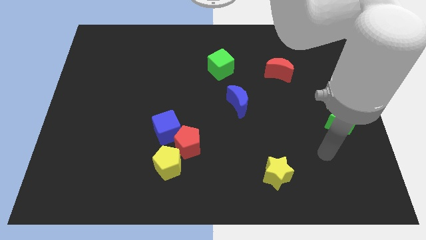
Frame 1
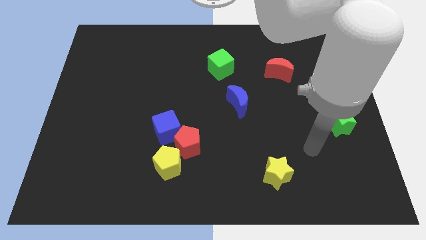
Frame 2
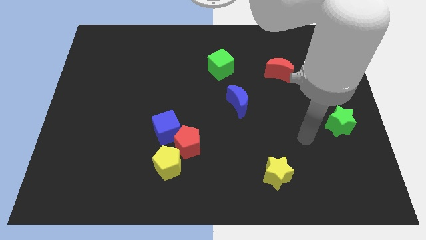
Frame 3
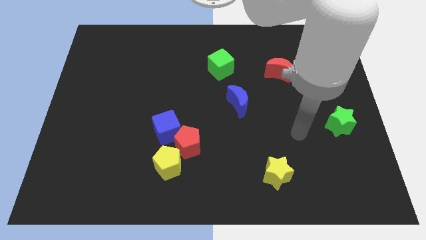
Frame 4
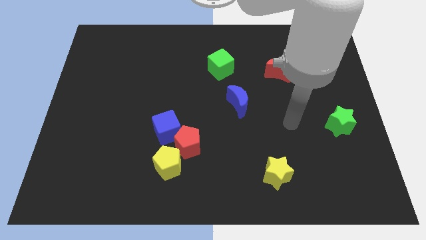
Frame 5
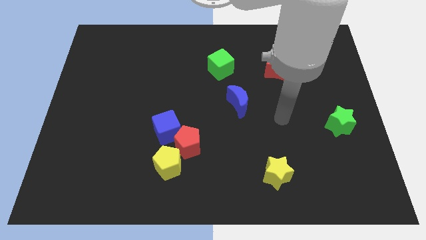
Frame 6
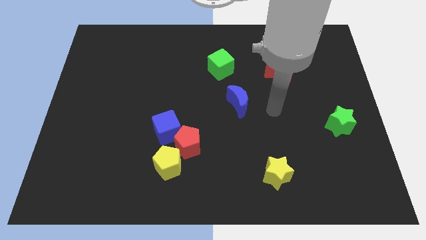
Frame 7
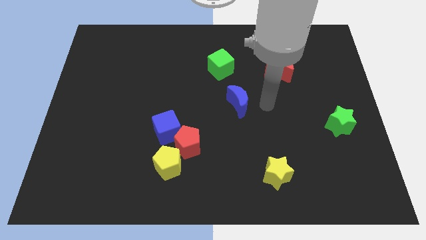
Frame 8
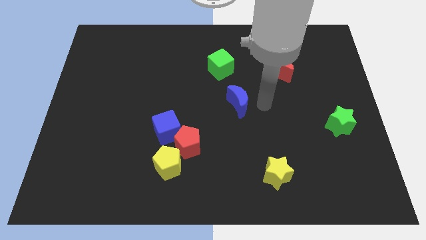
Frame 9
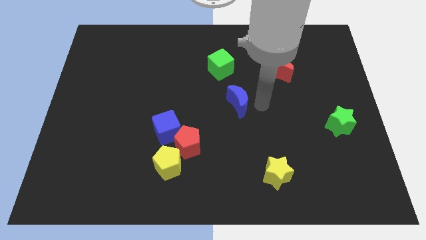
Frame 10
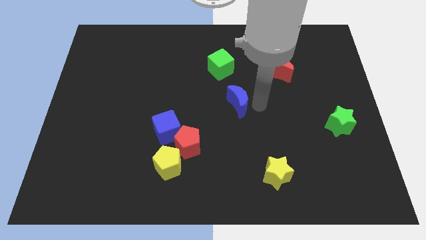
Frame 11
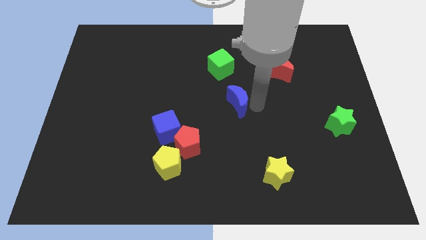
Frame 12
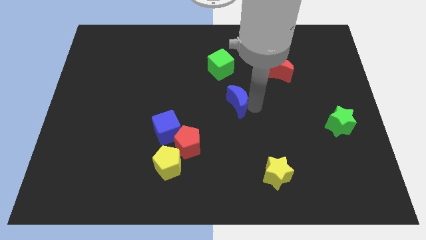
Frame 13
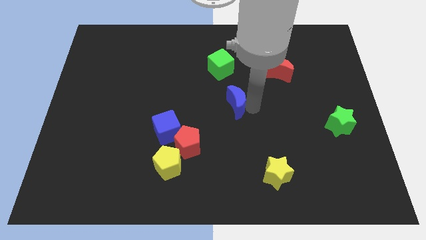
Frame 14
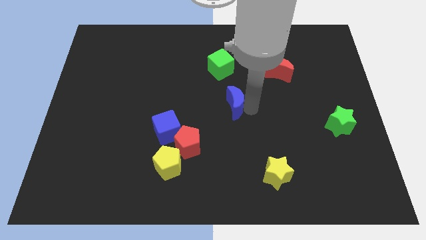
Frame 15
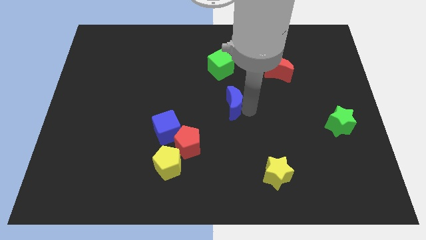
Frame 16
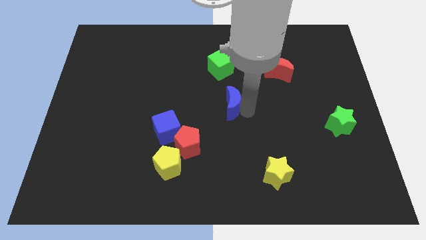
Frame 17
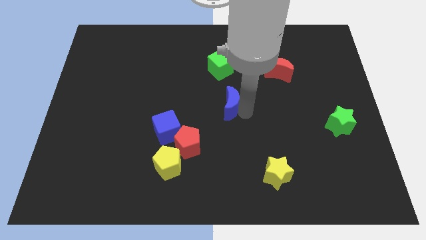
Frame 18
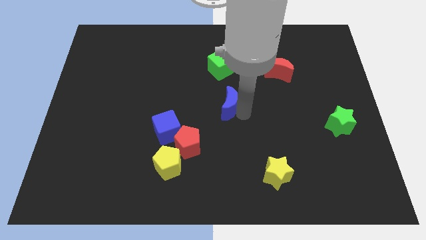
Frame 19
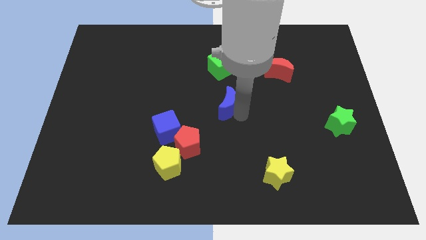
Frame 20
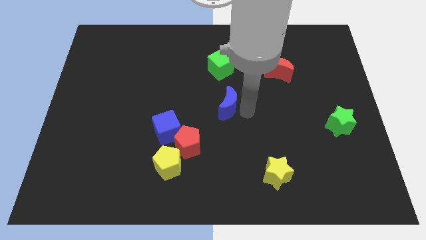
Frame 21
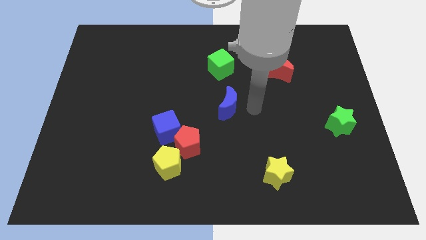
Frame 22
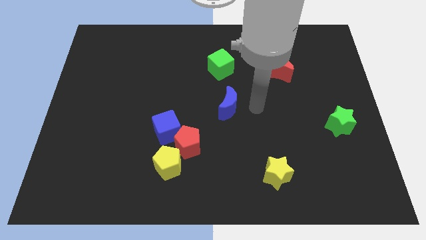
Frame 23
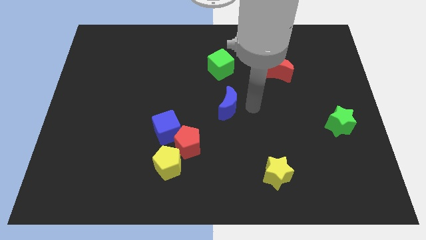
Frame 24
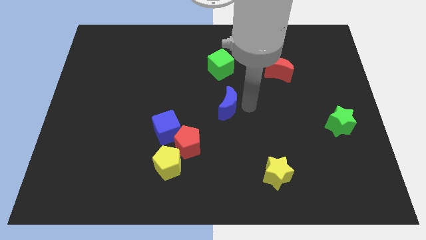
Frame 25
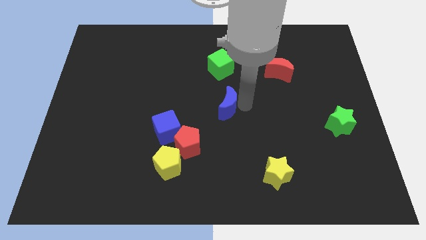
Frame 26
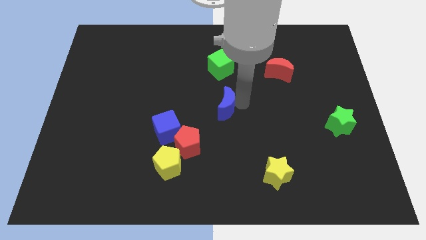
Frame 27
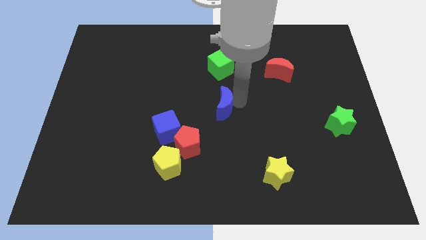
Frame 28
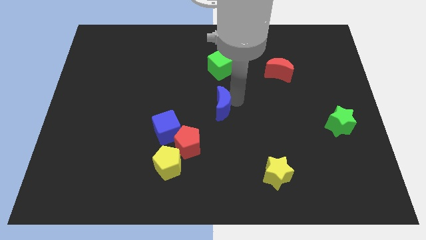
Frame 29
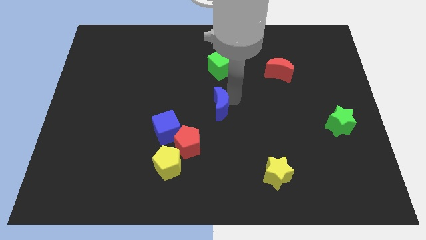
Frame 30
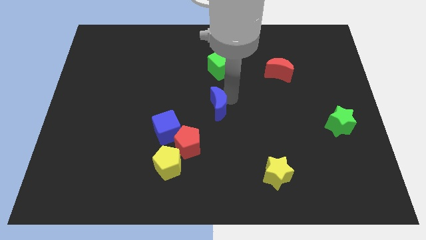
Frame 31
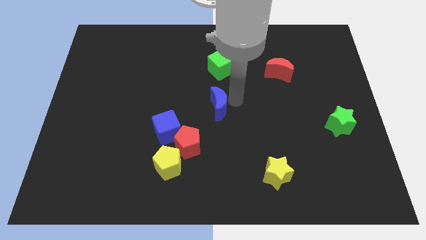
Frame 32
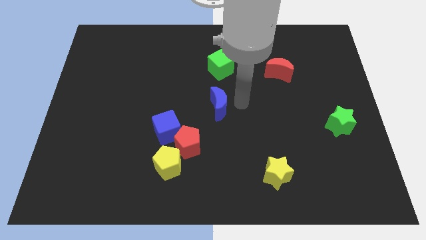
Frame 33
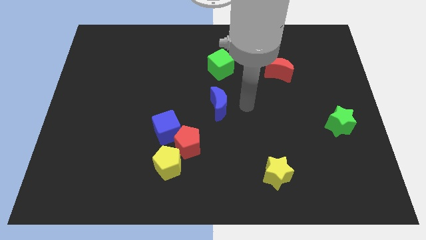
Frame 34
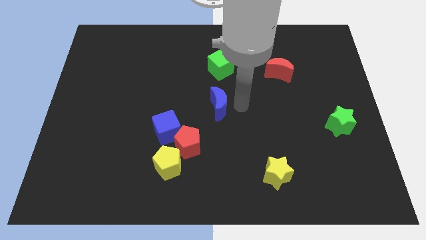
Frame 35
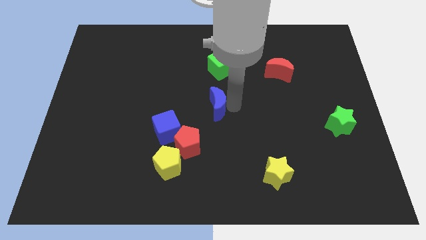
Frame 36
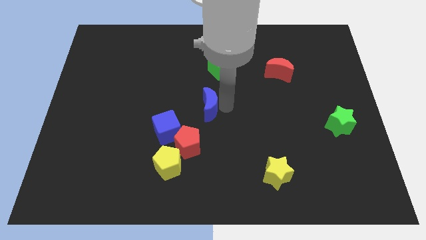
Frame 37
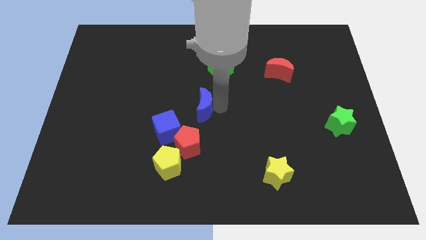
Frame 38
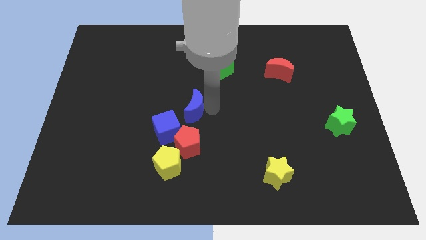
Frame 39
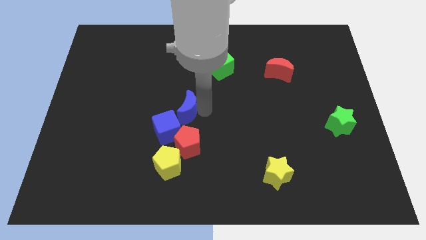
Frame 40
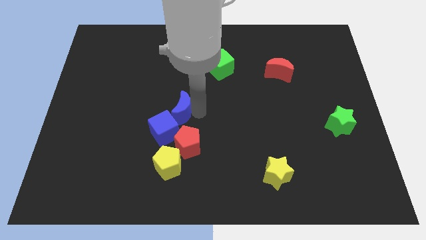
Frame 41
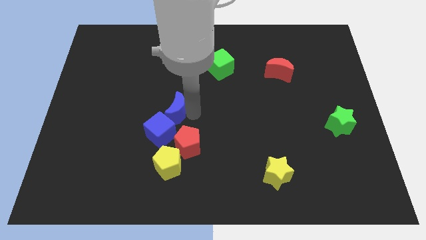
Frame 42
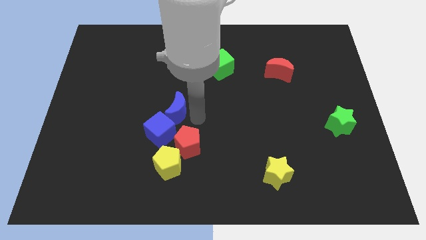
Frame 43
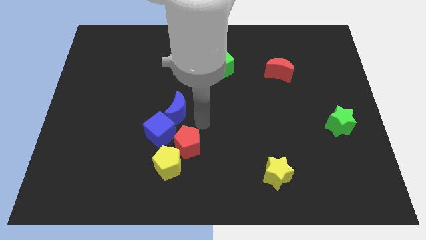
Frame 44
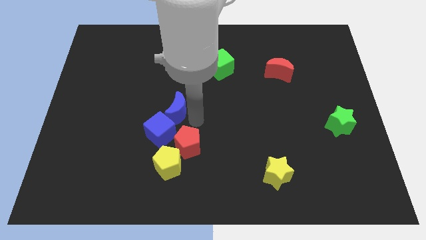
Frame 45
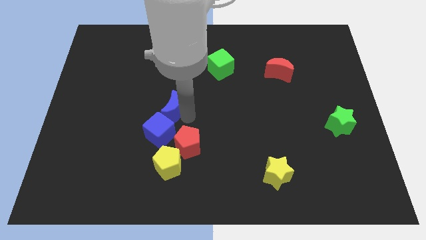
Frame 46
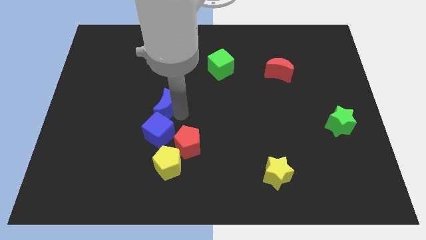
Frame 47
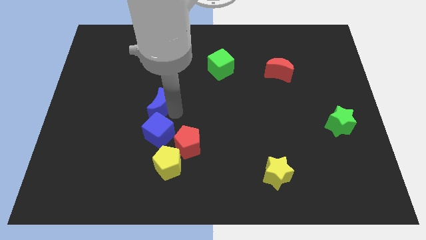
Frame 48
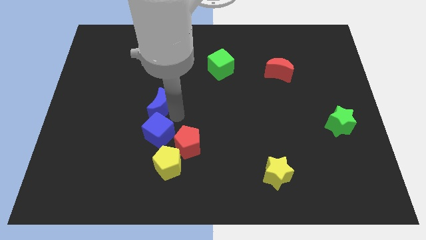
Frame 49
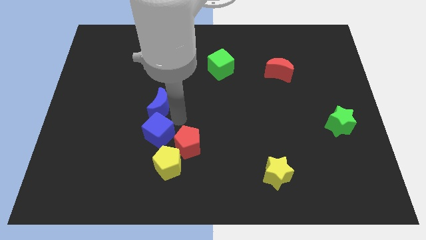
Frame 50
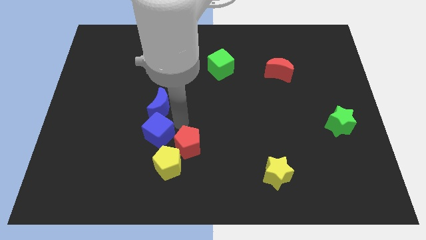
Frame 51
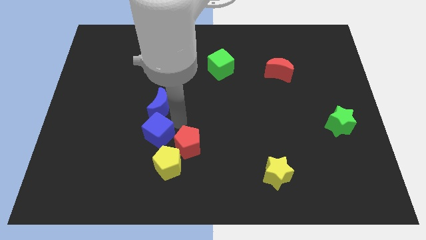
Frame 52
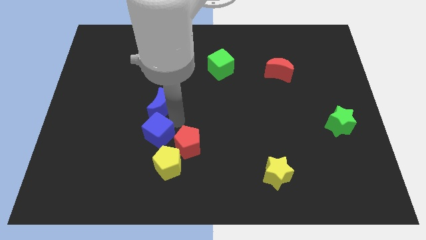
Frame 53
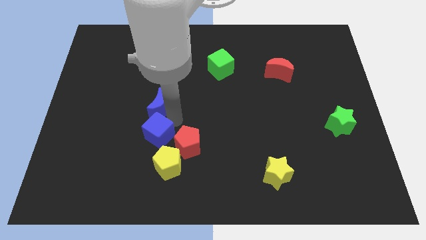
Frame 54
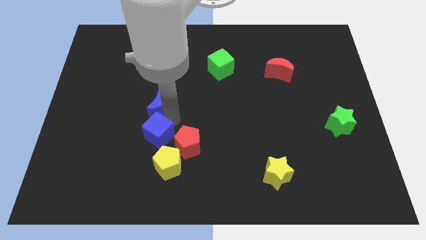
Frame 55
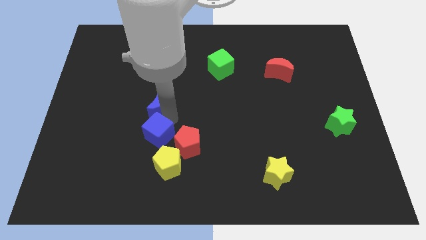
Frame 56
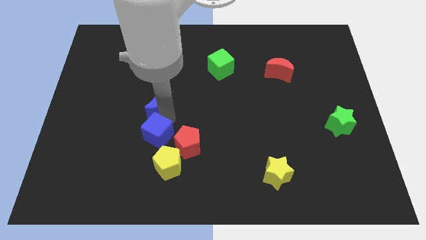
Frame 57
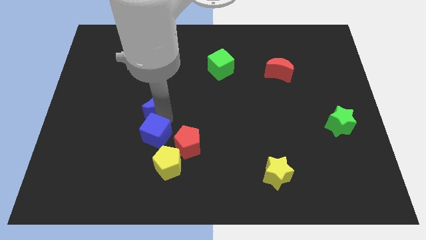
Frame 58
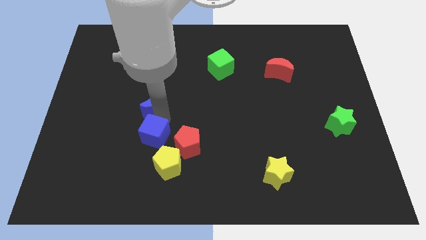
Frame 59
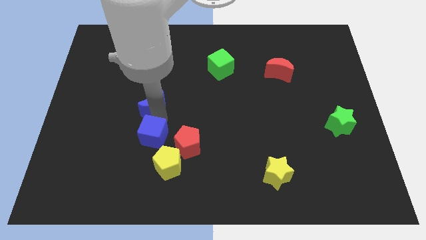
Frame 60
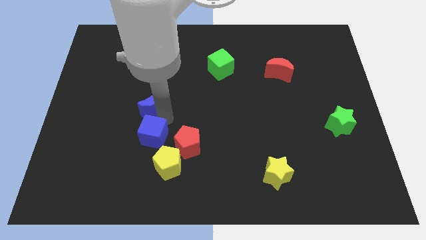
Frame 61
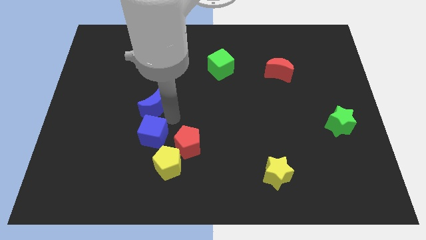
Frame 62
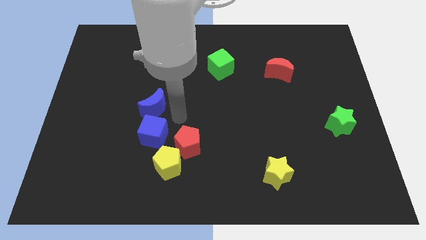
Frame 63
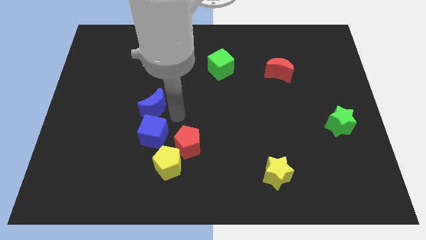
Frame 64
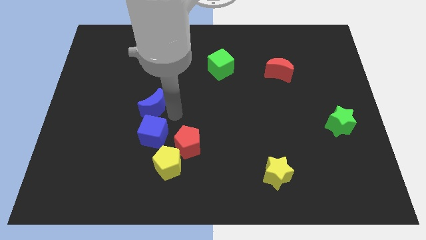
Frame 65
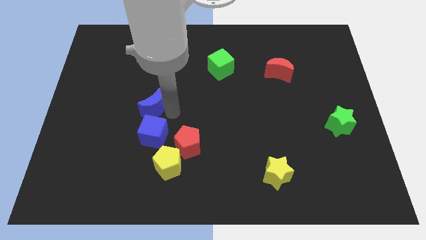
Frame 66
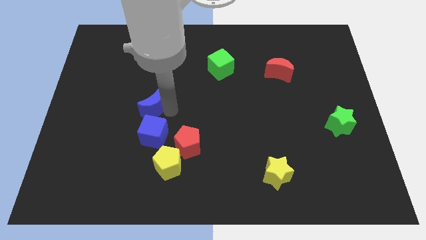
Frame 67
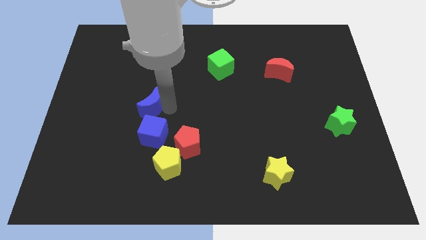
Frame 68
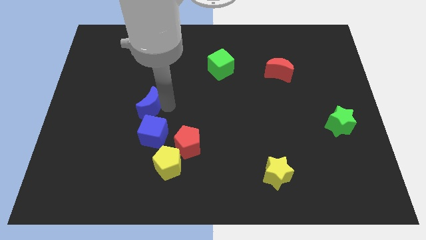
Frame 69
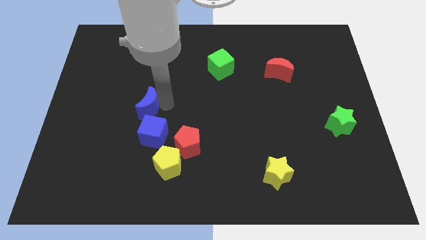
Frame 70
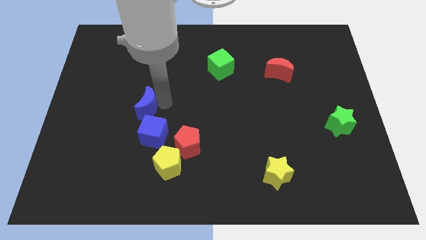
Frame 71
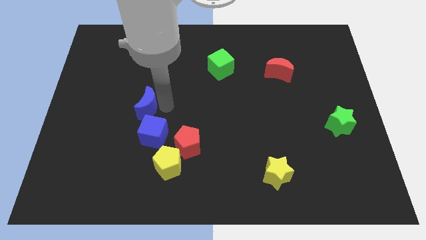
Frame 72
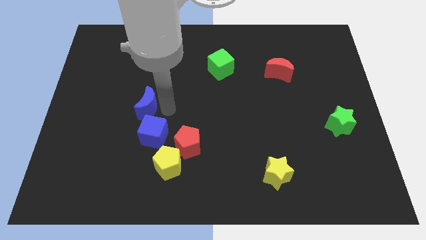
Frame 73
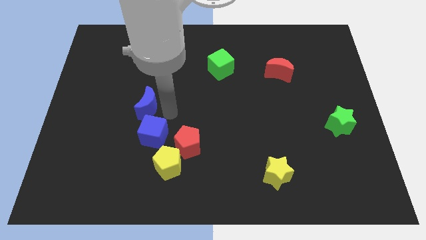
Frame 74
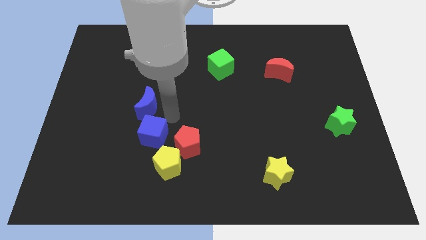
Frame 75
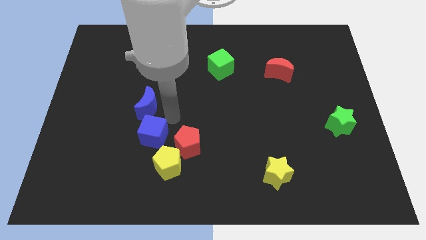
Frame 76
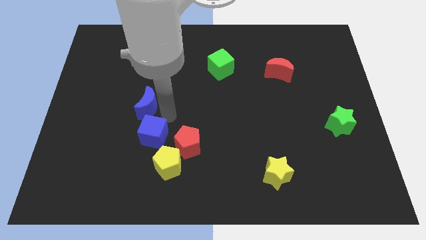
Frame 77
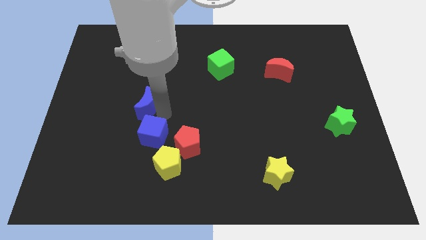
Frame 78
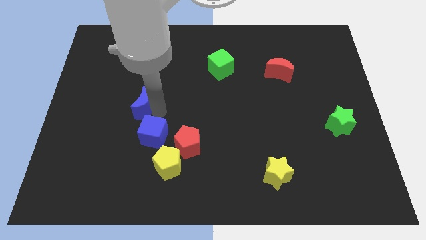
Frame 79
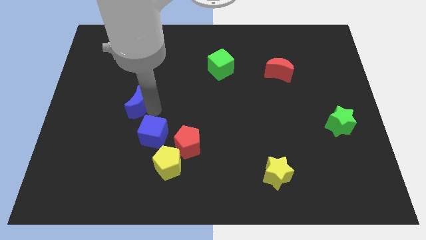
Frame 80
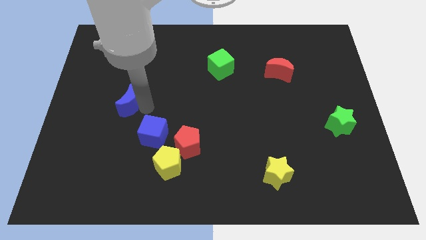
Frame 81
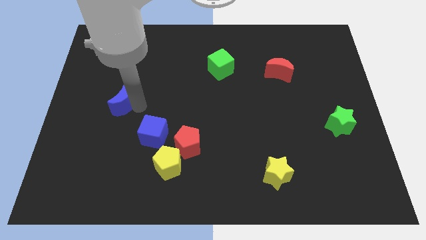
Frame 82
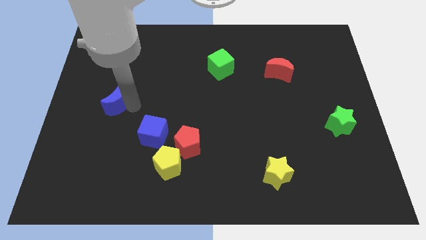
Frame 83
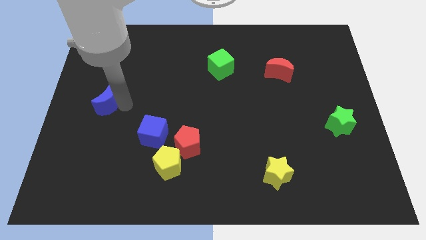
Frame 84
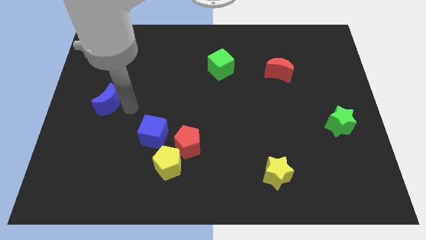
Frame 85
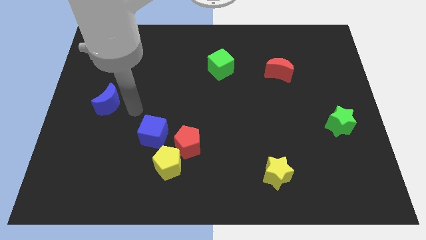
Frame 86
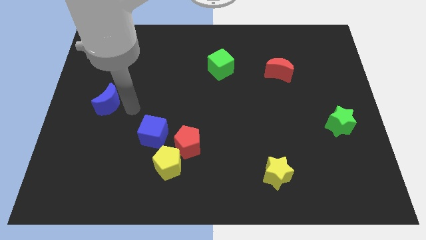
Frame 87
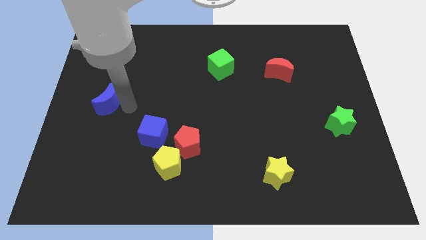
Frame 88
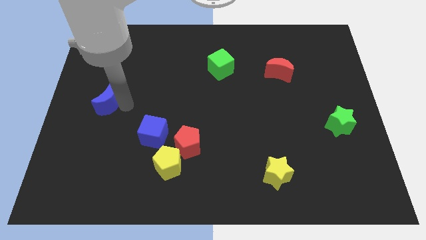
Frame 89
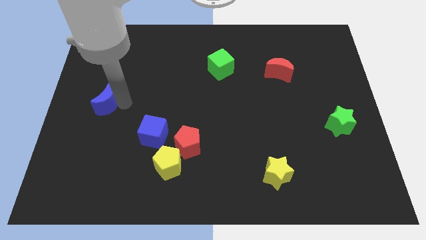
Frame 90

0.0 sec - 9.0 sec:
push the blue moon to the left side
